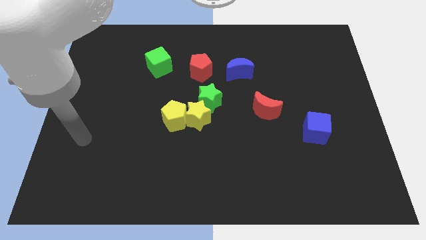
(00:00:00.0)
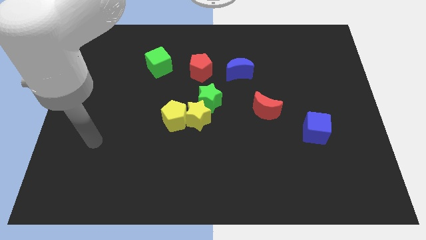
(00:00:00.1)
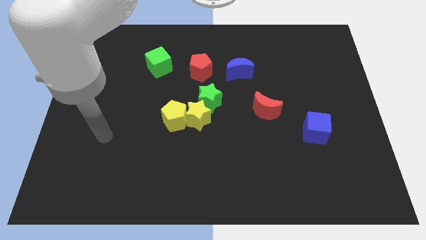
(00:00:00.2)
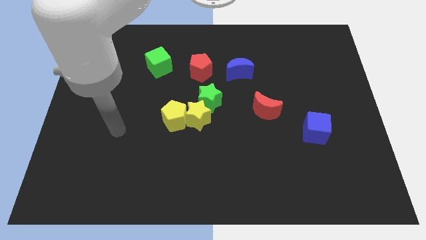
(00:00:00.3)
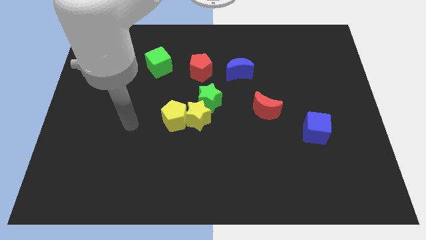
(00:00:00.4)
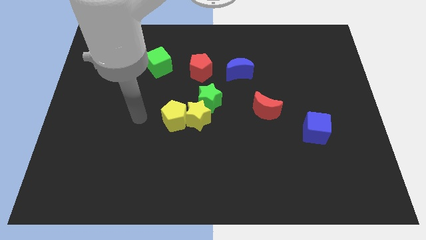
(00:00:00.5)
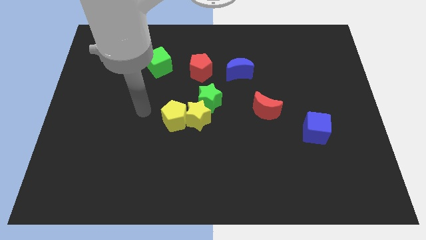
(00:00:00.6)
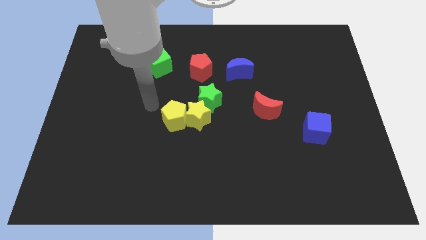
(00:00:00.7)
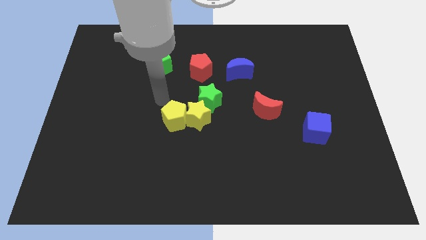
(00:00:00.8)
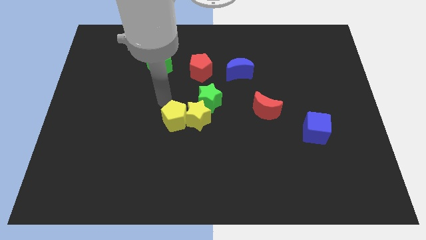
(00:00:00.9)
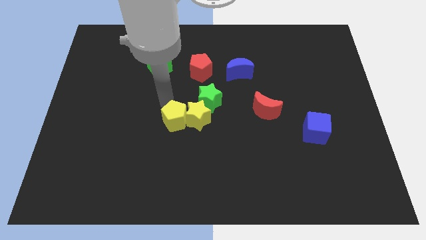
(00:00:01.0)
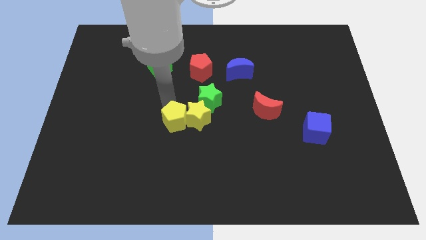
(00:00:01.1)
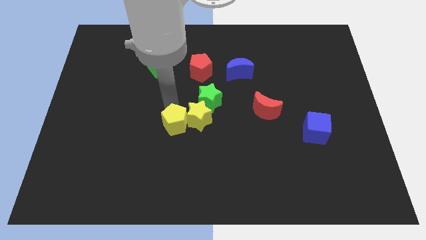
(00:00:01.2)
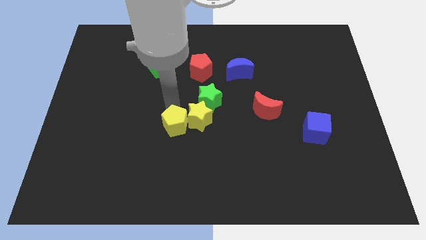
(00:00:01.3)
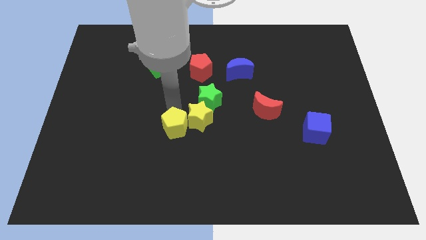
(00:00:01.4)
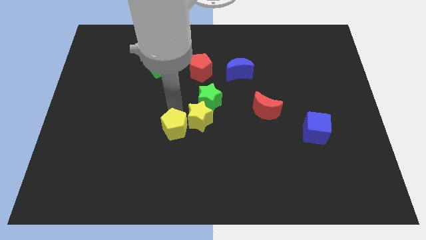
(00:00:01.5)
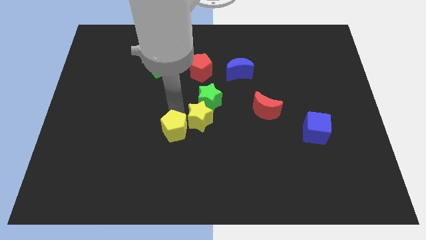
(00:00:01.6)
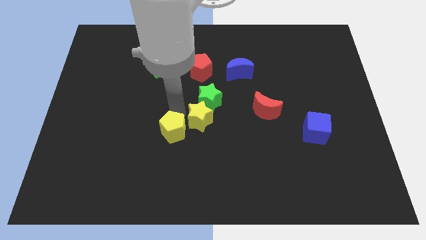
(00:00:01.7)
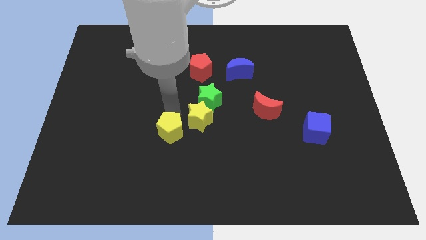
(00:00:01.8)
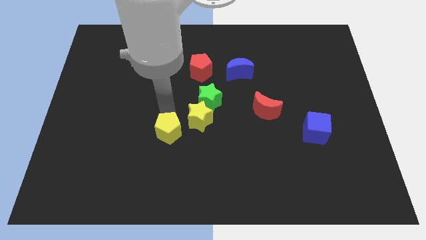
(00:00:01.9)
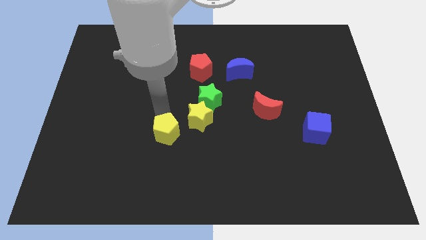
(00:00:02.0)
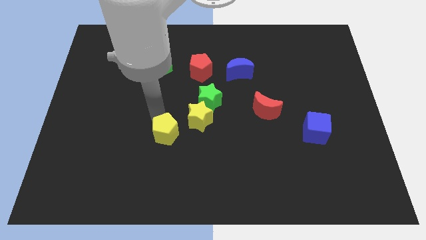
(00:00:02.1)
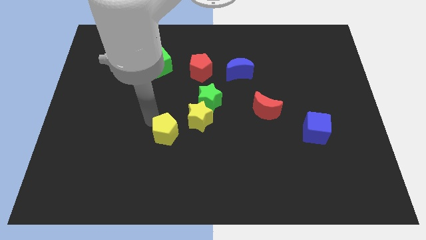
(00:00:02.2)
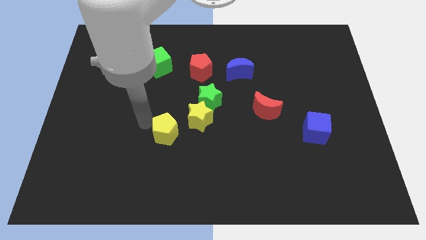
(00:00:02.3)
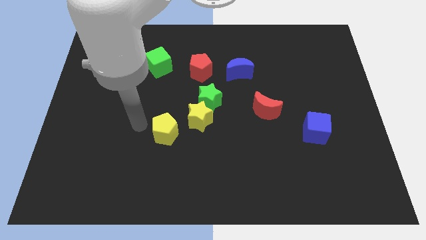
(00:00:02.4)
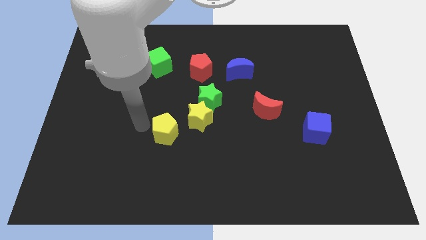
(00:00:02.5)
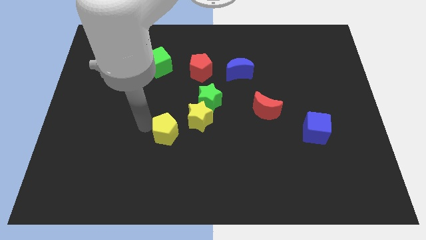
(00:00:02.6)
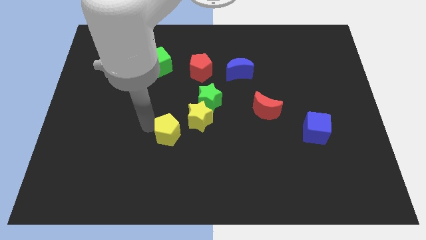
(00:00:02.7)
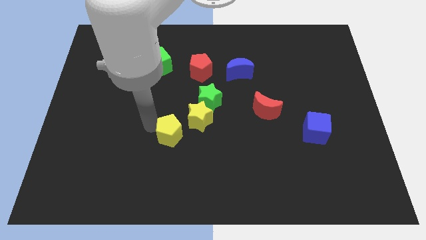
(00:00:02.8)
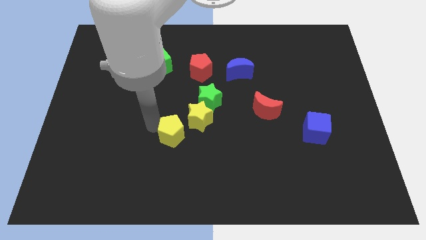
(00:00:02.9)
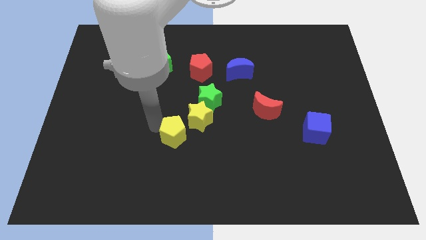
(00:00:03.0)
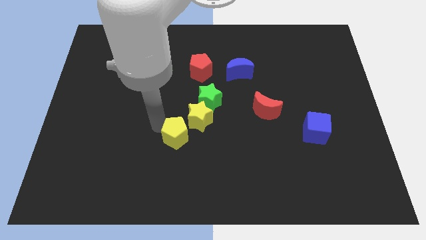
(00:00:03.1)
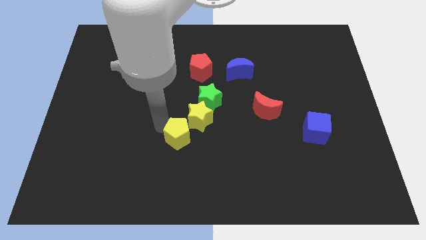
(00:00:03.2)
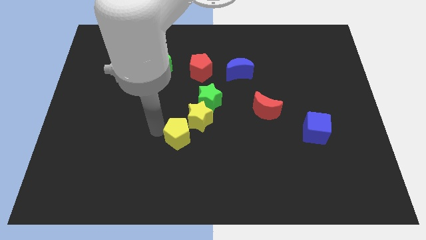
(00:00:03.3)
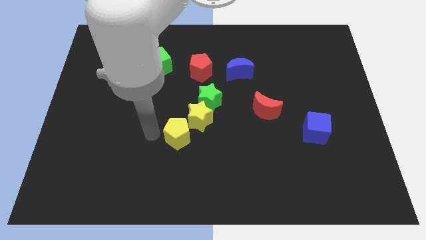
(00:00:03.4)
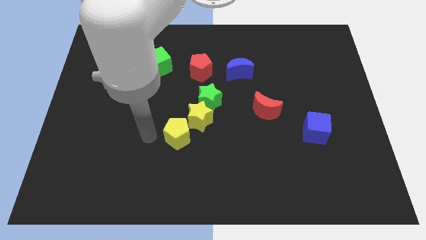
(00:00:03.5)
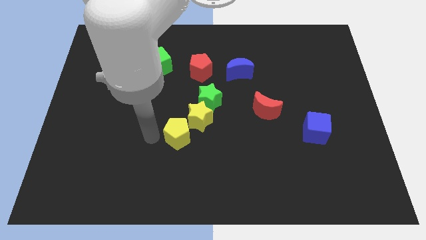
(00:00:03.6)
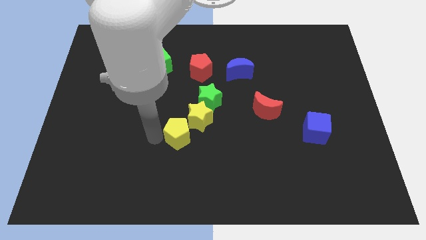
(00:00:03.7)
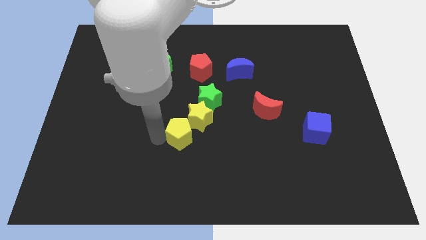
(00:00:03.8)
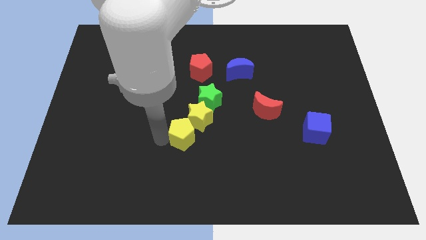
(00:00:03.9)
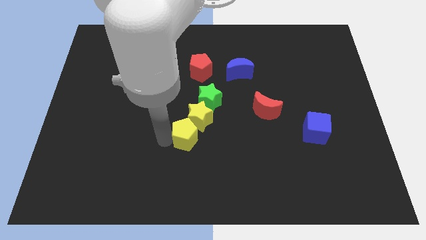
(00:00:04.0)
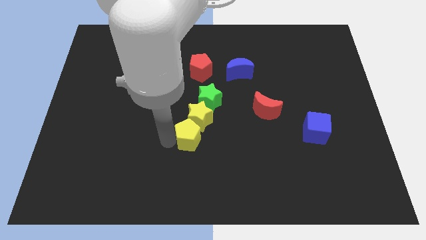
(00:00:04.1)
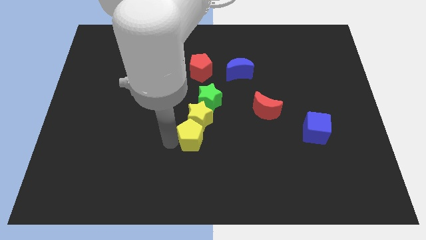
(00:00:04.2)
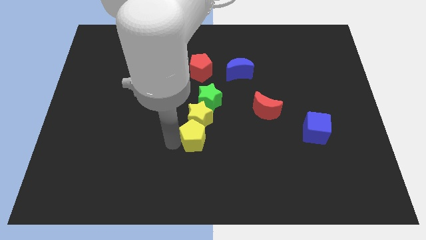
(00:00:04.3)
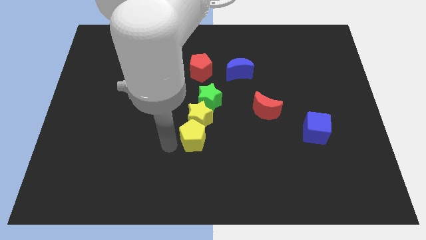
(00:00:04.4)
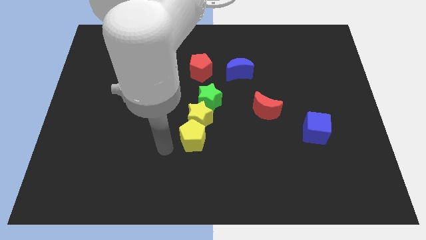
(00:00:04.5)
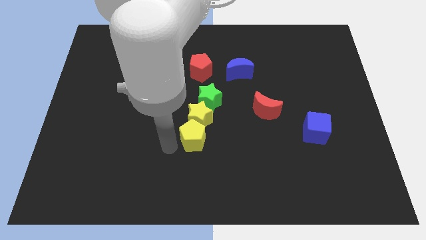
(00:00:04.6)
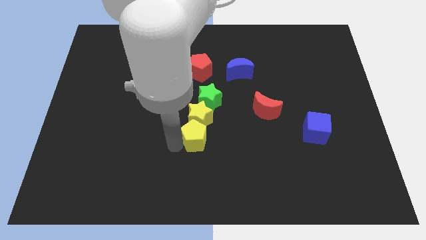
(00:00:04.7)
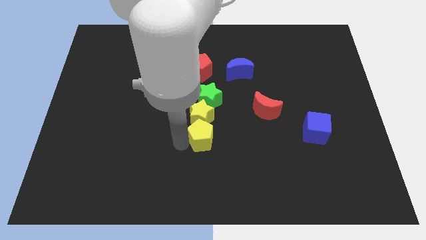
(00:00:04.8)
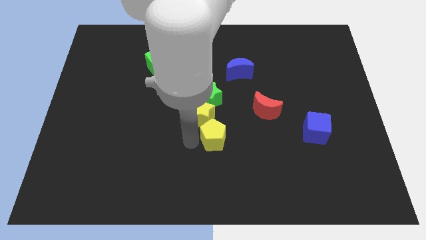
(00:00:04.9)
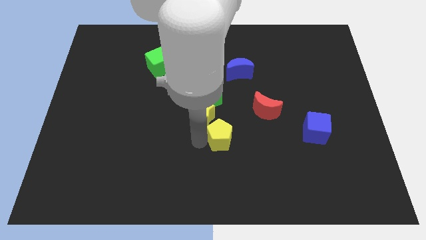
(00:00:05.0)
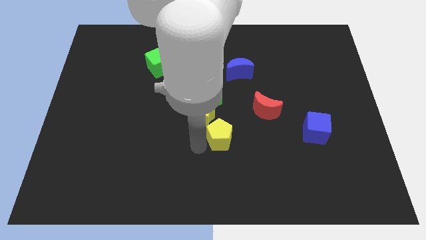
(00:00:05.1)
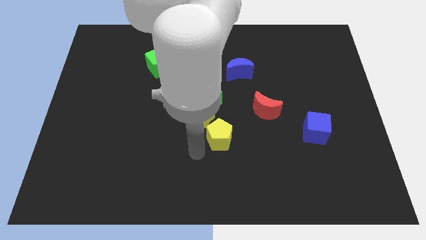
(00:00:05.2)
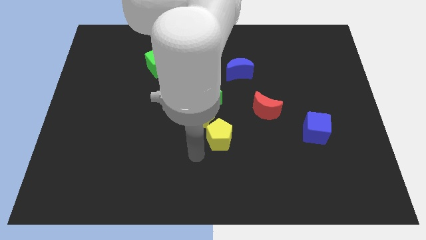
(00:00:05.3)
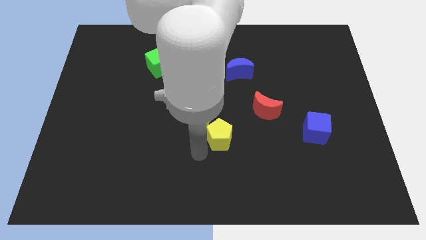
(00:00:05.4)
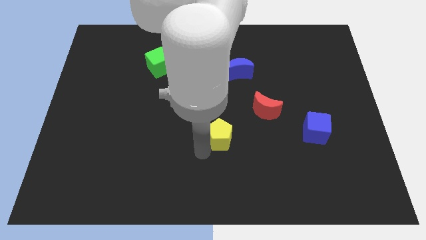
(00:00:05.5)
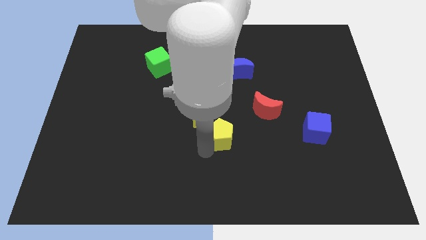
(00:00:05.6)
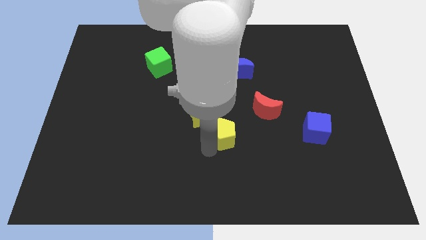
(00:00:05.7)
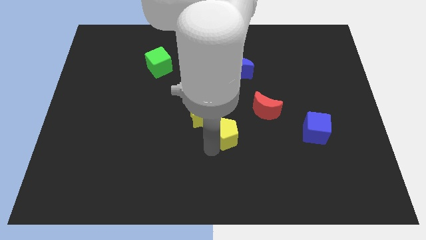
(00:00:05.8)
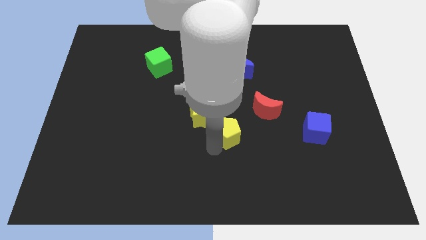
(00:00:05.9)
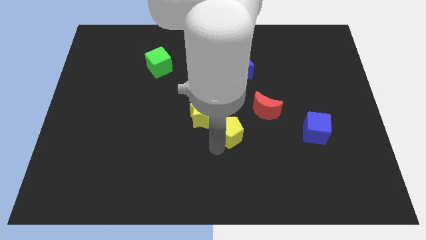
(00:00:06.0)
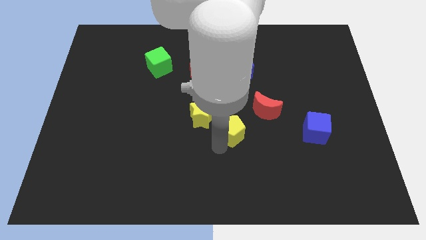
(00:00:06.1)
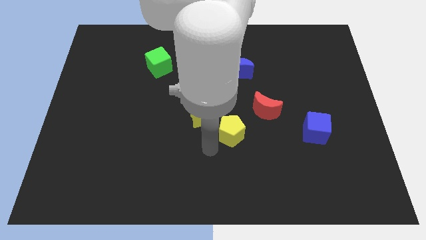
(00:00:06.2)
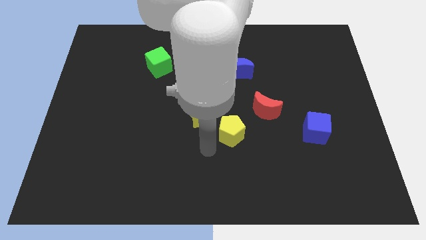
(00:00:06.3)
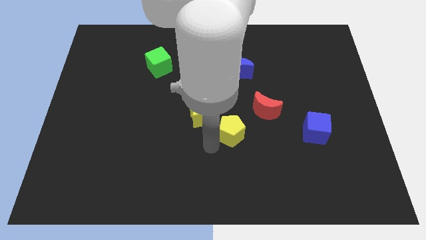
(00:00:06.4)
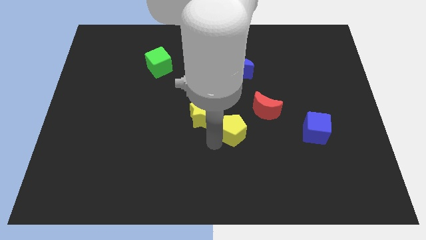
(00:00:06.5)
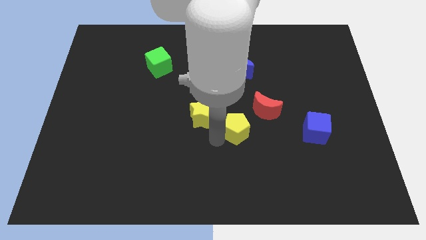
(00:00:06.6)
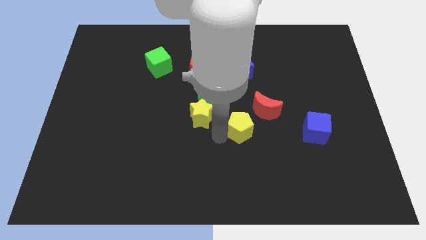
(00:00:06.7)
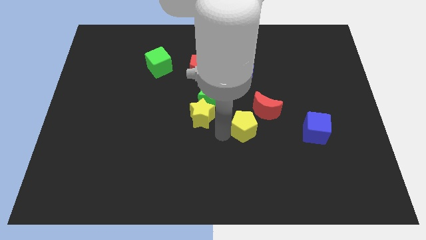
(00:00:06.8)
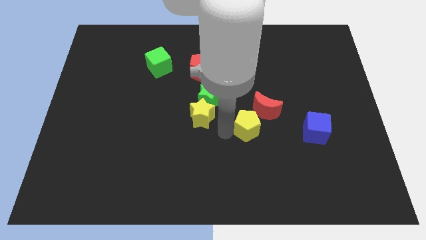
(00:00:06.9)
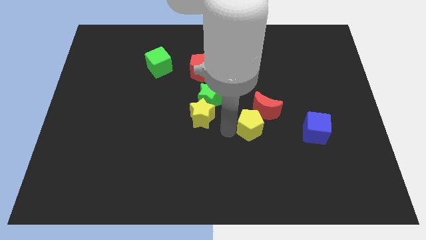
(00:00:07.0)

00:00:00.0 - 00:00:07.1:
slide the yellow pentagon to the red moon
